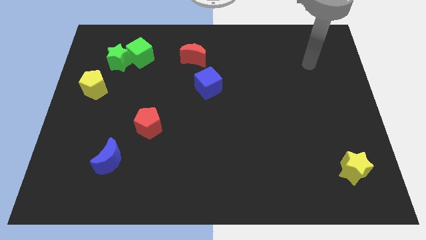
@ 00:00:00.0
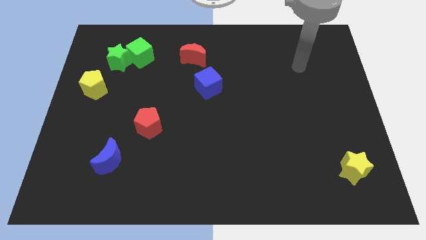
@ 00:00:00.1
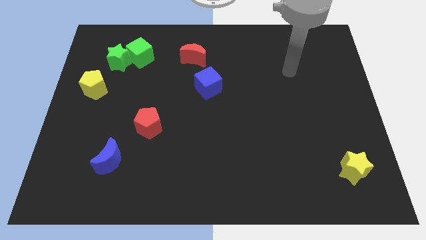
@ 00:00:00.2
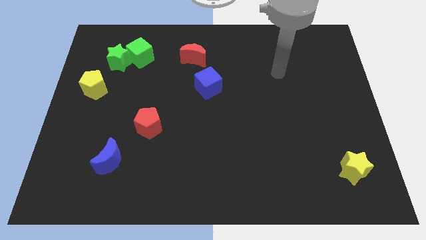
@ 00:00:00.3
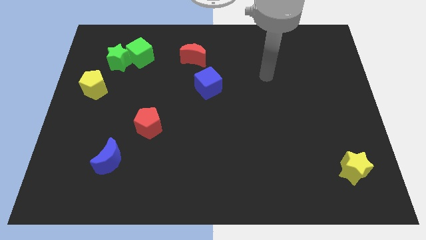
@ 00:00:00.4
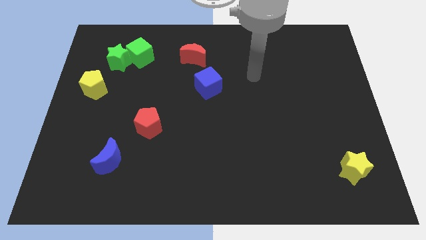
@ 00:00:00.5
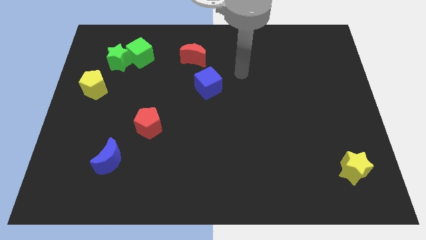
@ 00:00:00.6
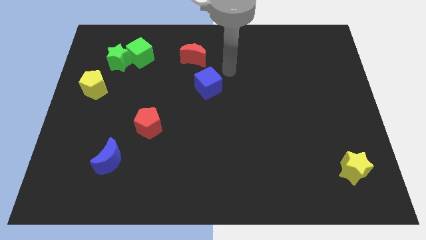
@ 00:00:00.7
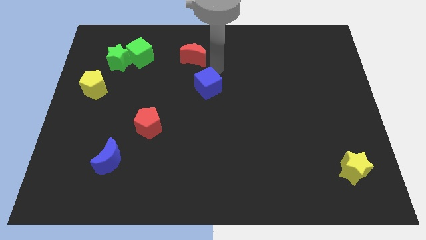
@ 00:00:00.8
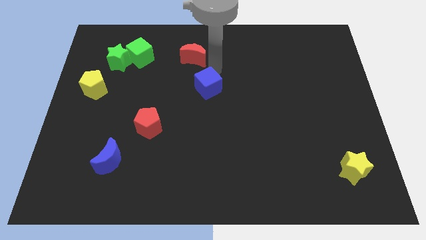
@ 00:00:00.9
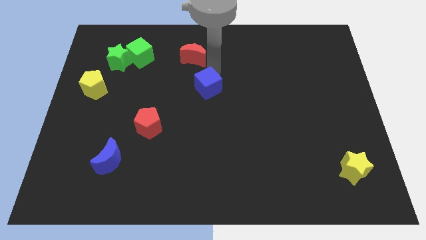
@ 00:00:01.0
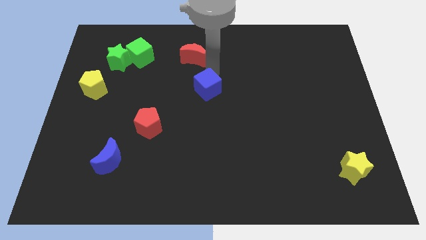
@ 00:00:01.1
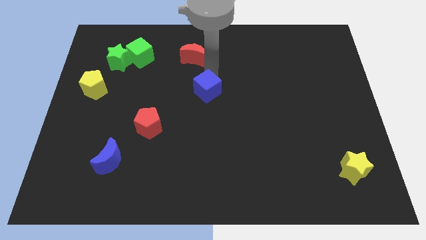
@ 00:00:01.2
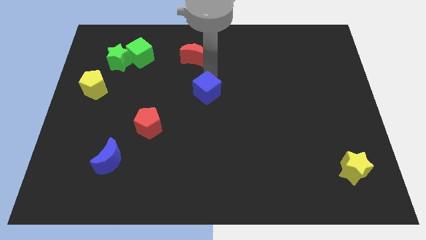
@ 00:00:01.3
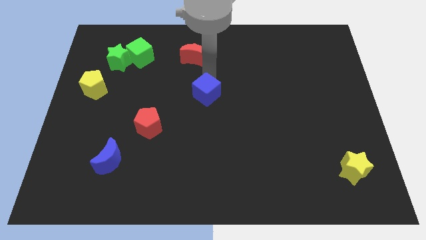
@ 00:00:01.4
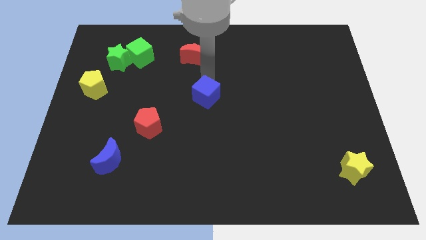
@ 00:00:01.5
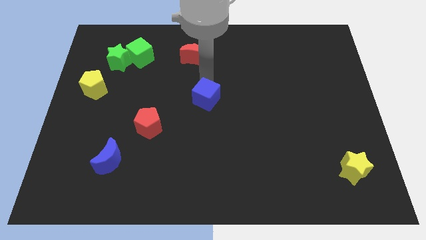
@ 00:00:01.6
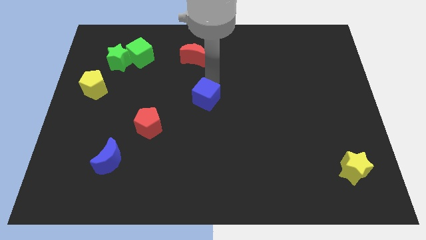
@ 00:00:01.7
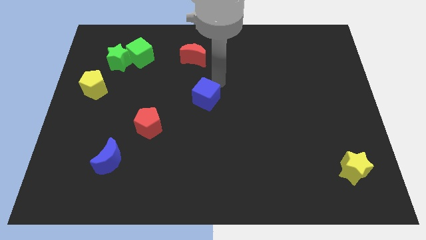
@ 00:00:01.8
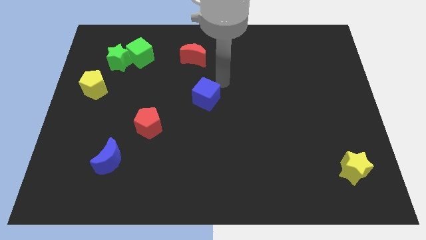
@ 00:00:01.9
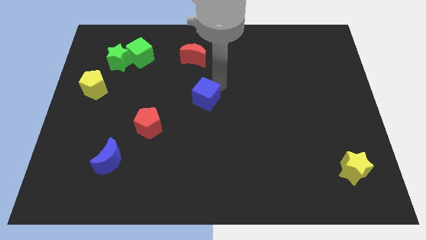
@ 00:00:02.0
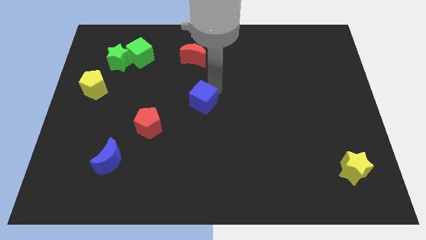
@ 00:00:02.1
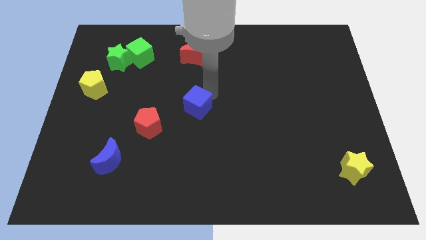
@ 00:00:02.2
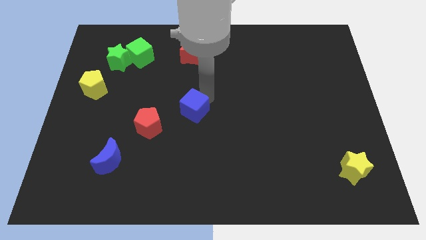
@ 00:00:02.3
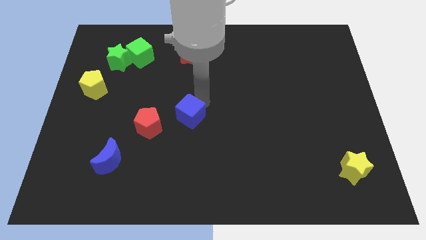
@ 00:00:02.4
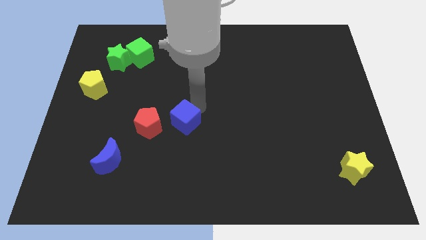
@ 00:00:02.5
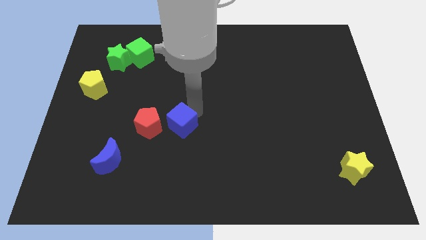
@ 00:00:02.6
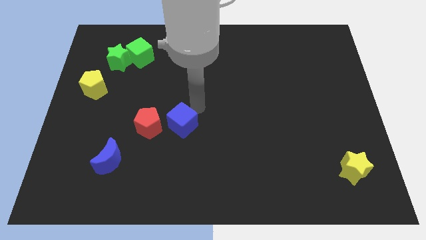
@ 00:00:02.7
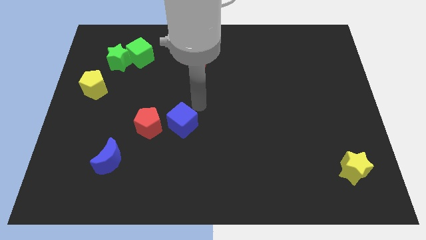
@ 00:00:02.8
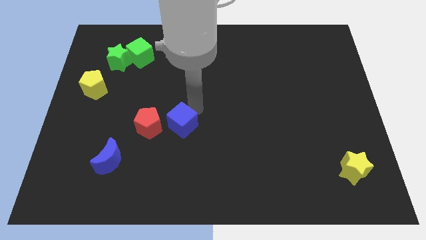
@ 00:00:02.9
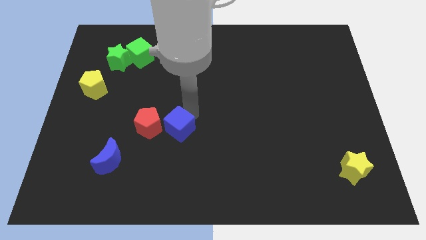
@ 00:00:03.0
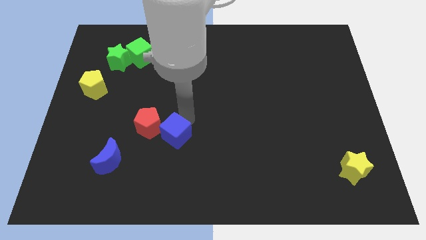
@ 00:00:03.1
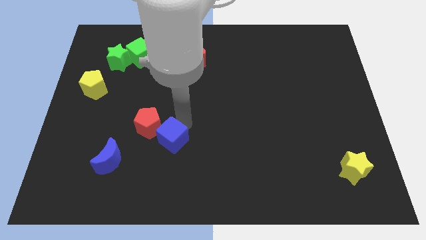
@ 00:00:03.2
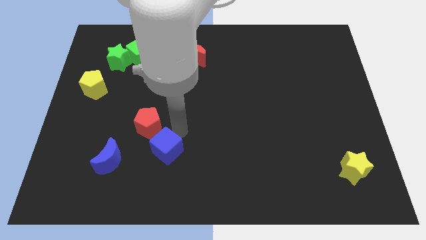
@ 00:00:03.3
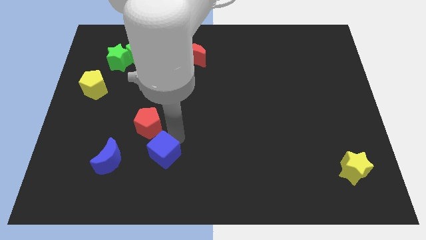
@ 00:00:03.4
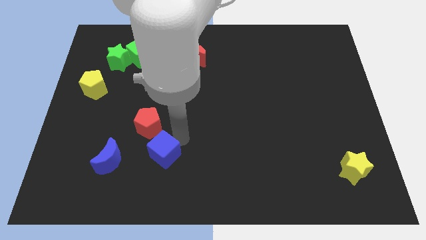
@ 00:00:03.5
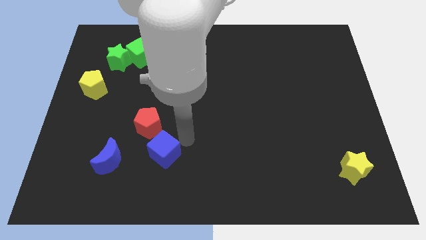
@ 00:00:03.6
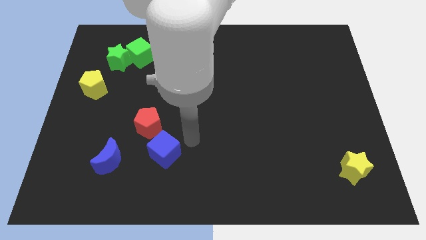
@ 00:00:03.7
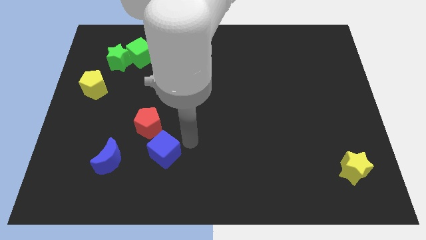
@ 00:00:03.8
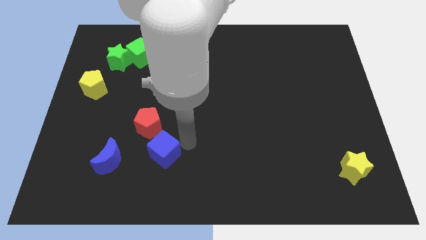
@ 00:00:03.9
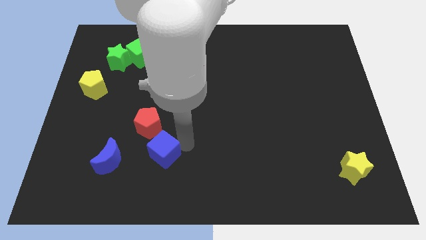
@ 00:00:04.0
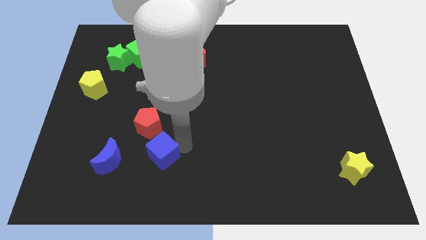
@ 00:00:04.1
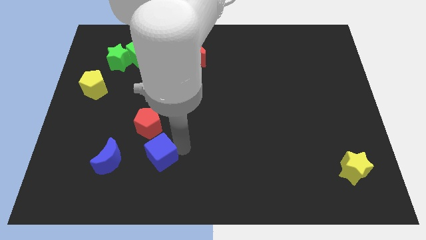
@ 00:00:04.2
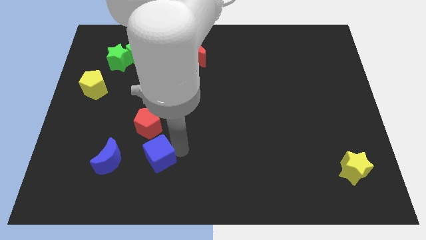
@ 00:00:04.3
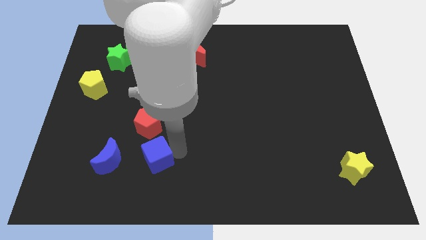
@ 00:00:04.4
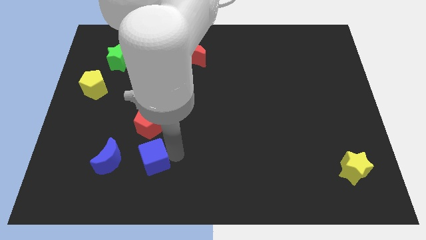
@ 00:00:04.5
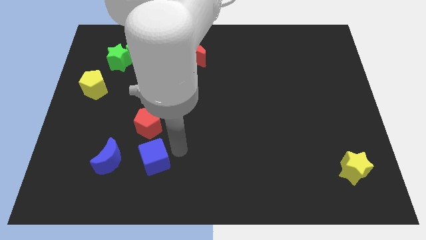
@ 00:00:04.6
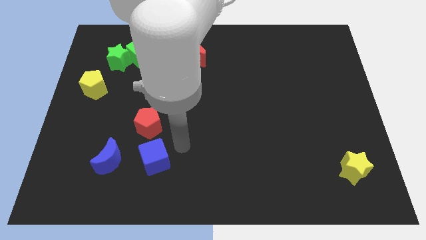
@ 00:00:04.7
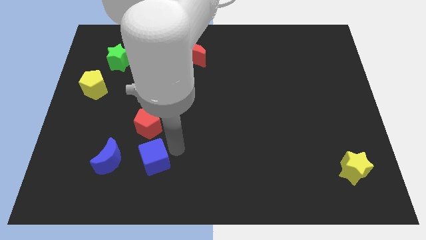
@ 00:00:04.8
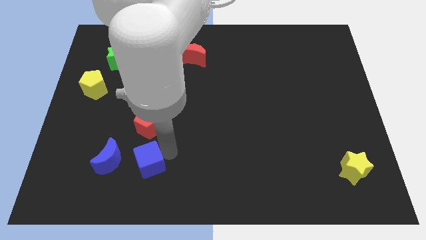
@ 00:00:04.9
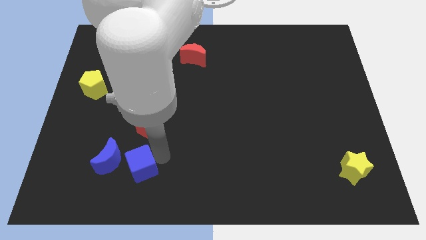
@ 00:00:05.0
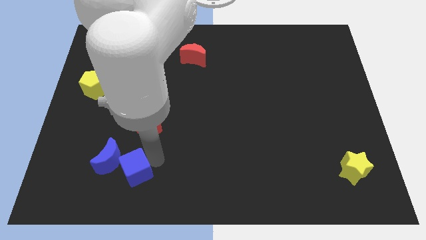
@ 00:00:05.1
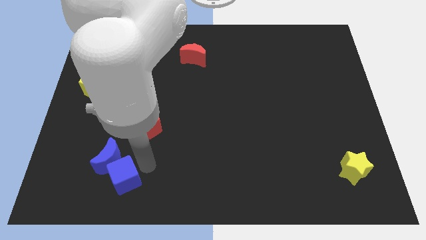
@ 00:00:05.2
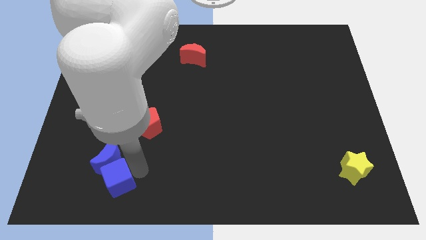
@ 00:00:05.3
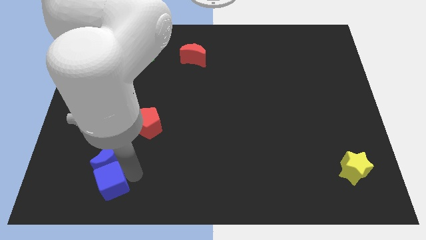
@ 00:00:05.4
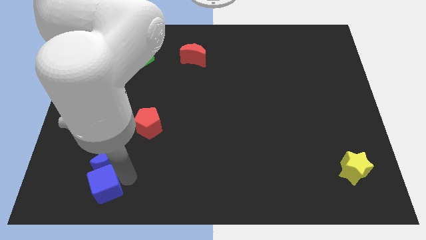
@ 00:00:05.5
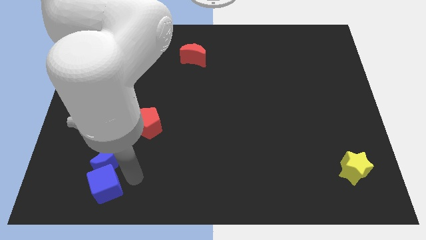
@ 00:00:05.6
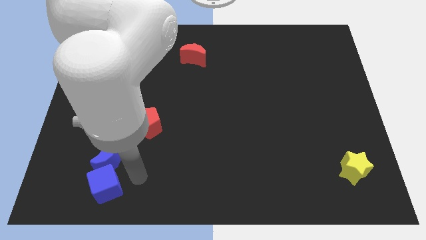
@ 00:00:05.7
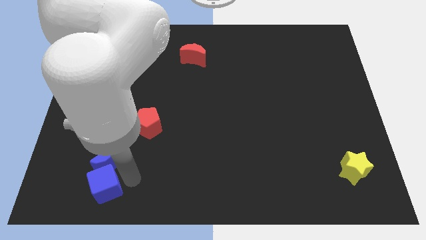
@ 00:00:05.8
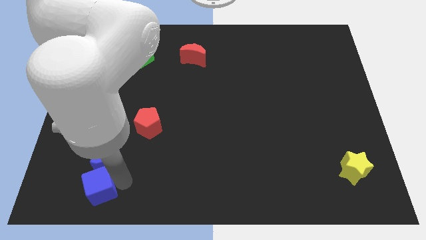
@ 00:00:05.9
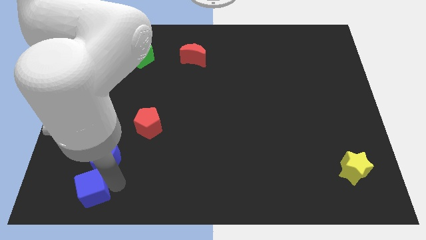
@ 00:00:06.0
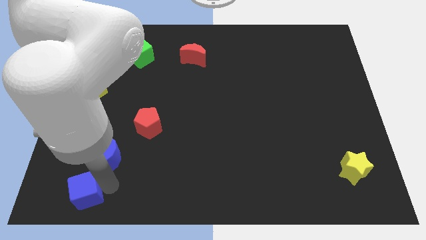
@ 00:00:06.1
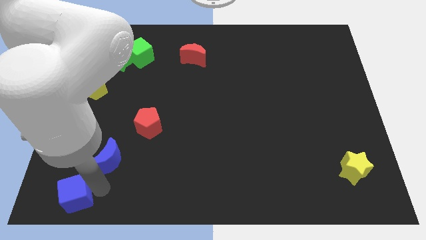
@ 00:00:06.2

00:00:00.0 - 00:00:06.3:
slide the blue cube to the lower left corner
